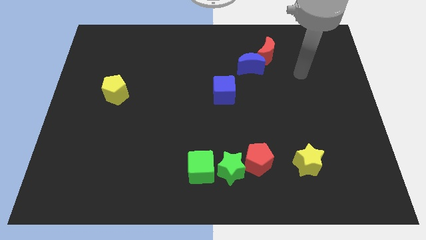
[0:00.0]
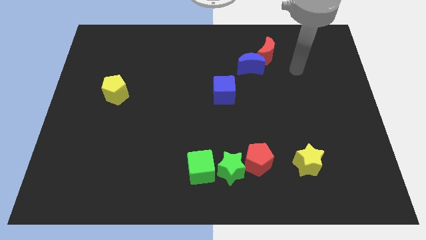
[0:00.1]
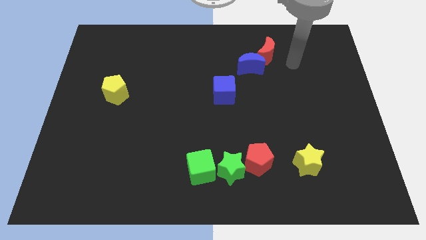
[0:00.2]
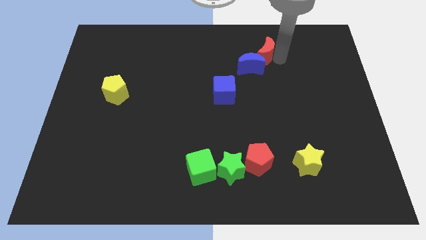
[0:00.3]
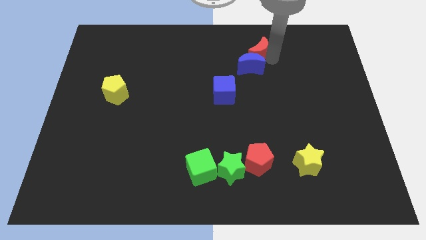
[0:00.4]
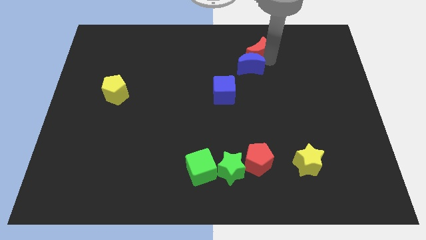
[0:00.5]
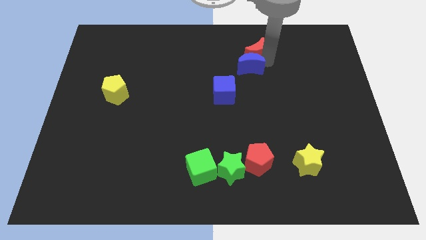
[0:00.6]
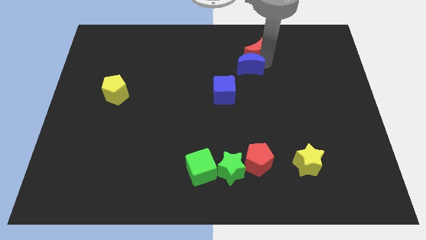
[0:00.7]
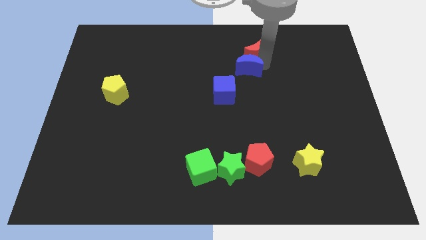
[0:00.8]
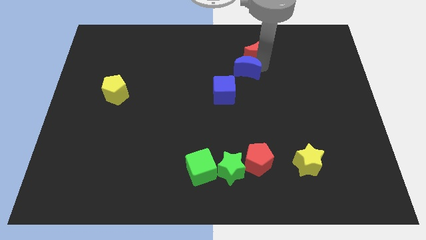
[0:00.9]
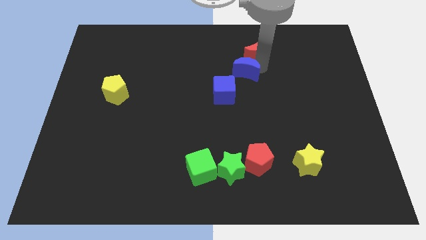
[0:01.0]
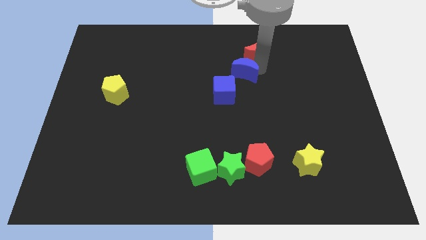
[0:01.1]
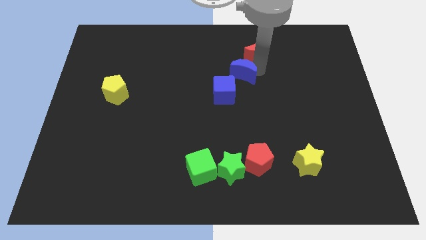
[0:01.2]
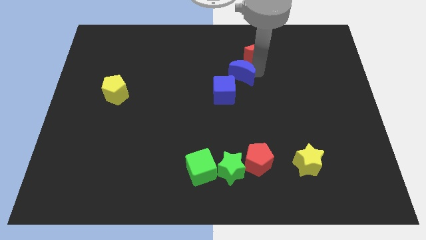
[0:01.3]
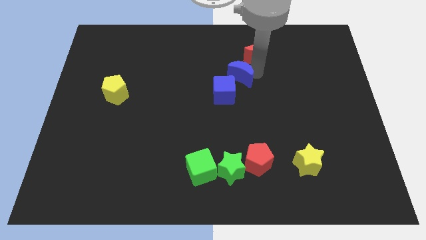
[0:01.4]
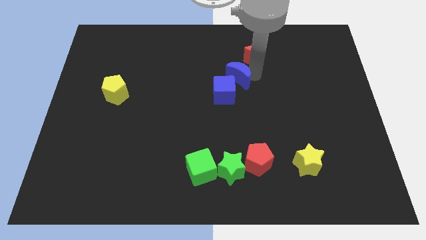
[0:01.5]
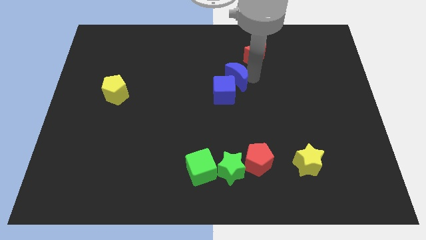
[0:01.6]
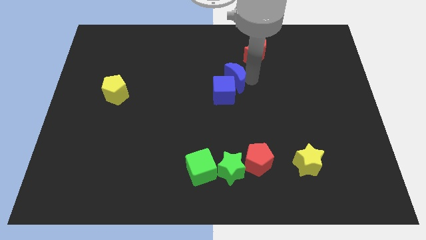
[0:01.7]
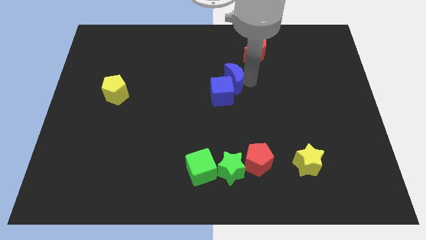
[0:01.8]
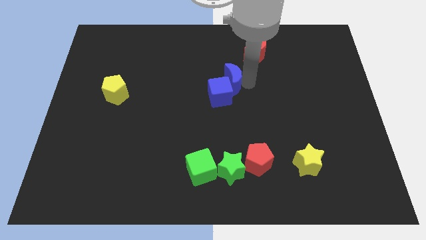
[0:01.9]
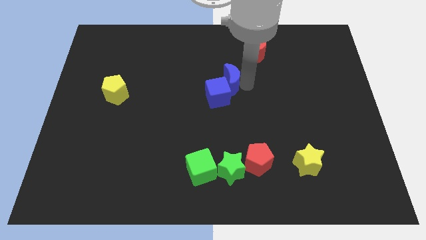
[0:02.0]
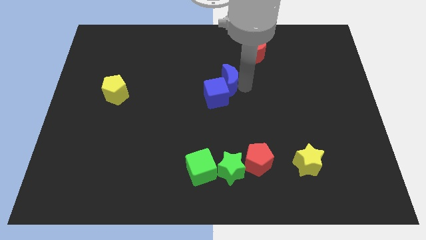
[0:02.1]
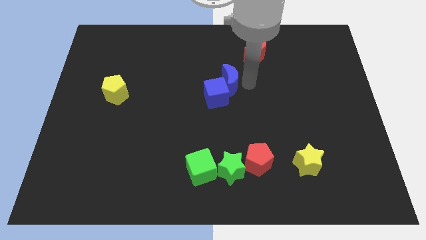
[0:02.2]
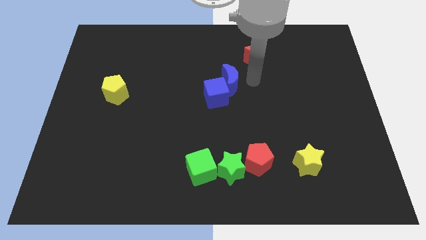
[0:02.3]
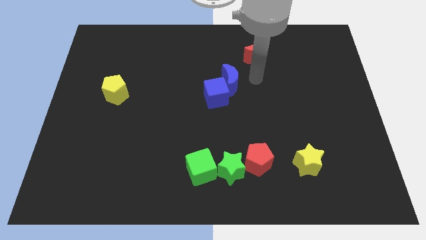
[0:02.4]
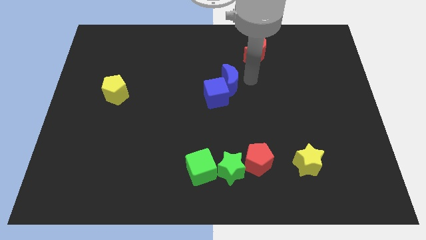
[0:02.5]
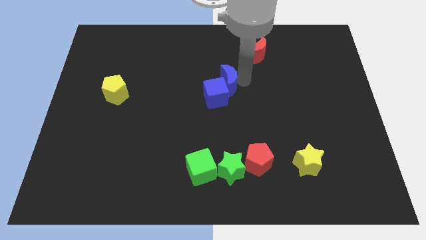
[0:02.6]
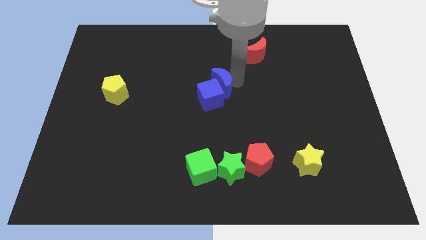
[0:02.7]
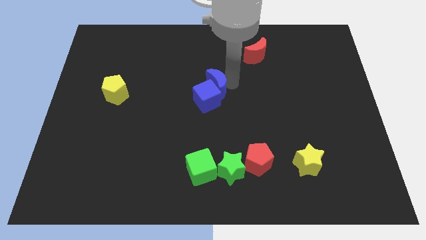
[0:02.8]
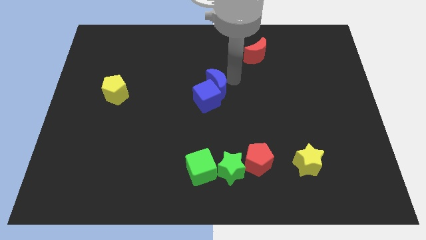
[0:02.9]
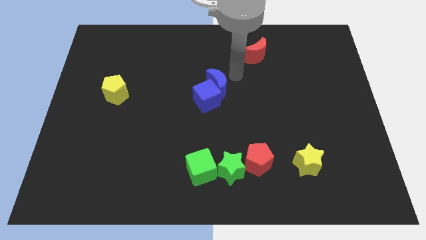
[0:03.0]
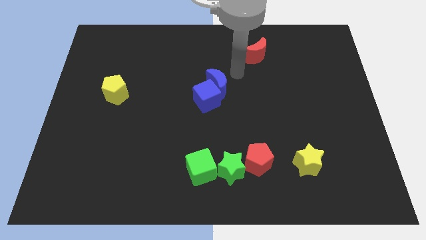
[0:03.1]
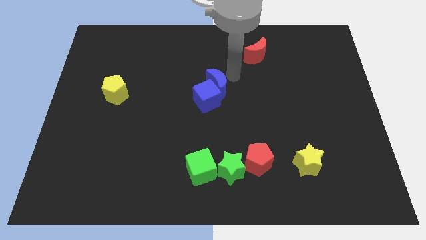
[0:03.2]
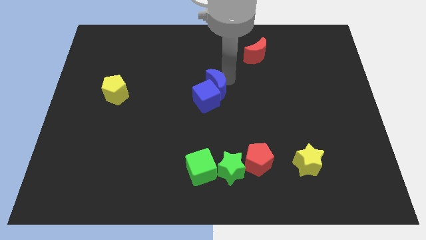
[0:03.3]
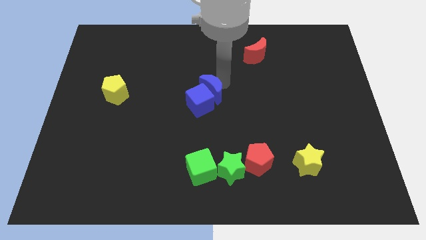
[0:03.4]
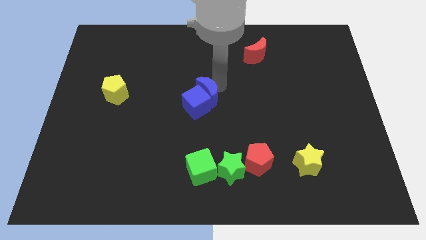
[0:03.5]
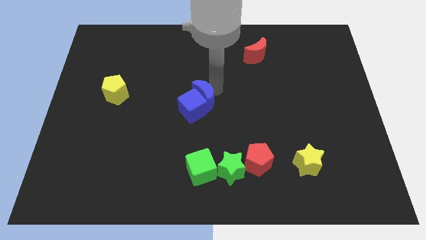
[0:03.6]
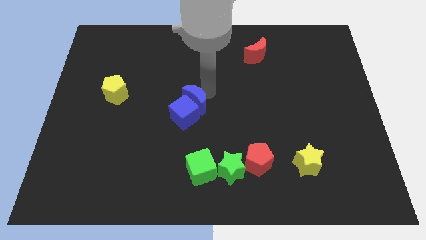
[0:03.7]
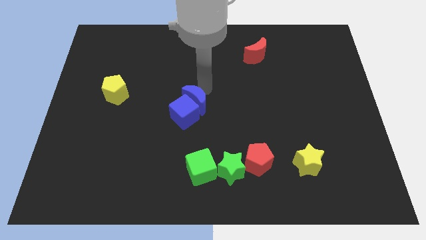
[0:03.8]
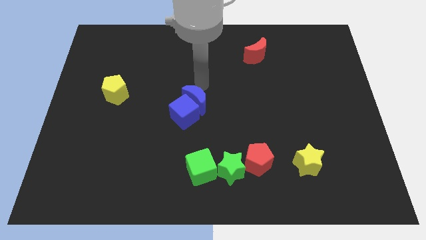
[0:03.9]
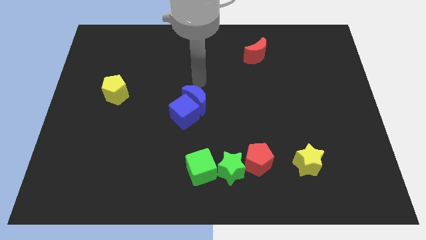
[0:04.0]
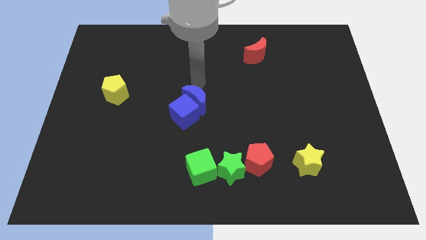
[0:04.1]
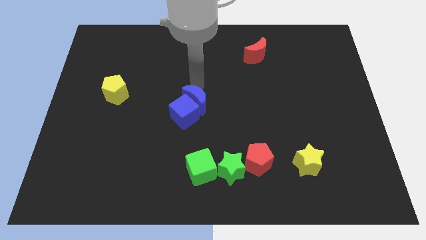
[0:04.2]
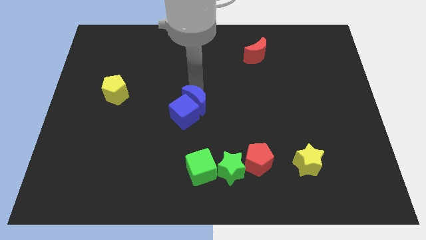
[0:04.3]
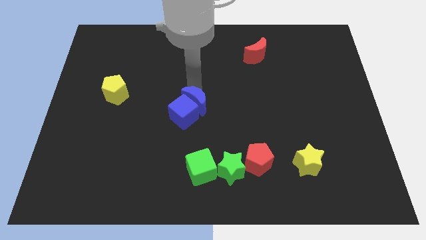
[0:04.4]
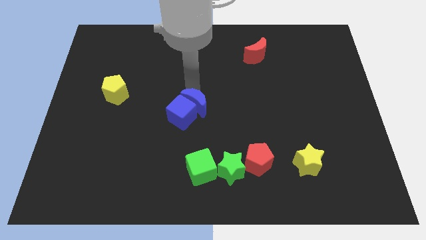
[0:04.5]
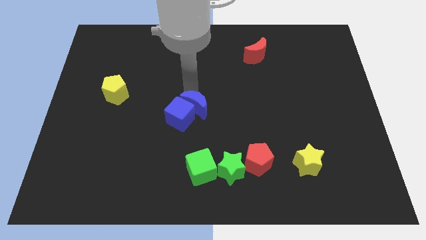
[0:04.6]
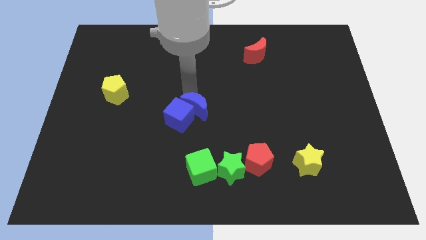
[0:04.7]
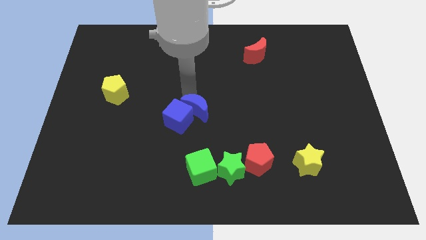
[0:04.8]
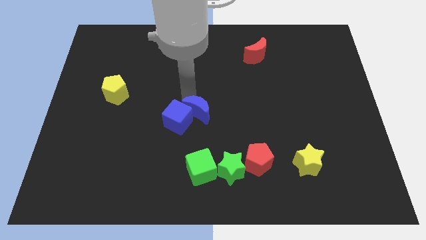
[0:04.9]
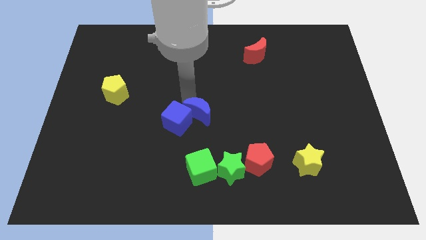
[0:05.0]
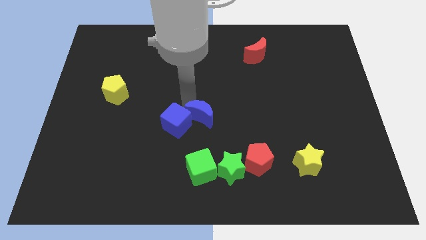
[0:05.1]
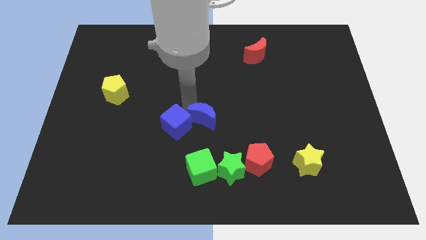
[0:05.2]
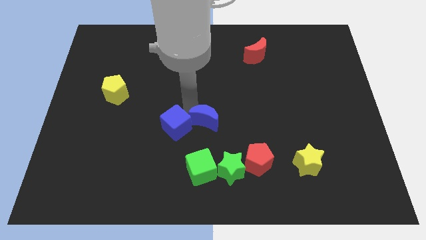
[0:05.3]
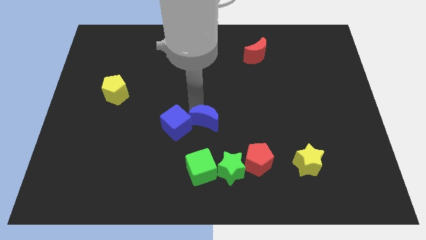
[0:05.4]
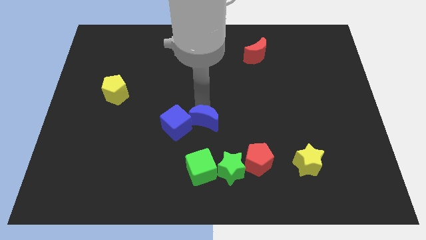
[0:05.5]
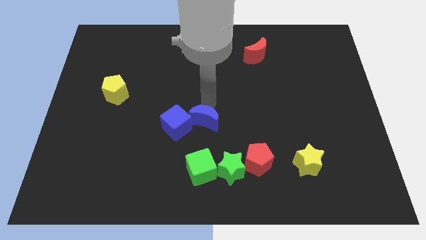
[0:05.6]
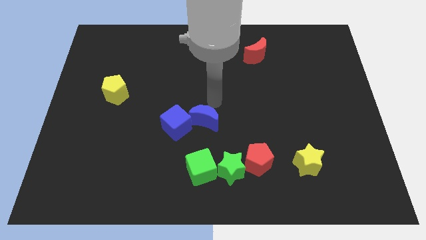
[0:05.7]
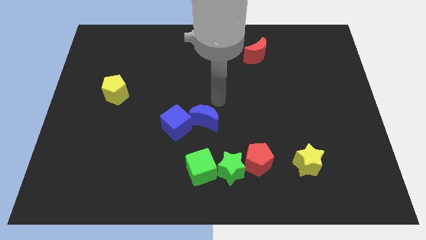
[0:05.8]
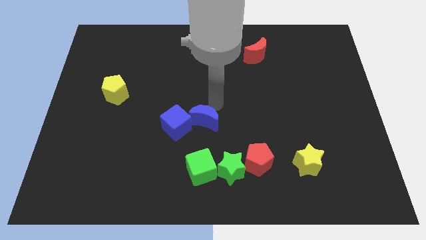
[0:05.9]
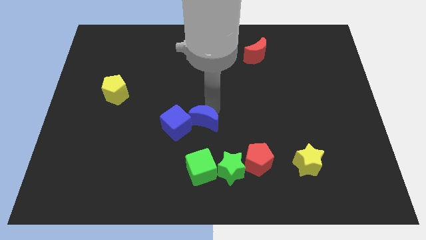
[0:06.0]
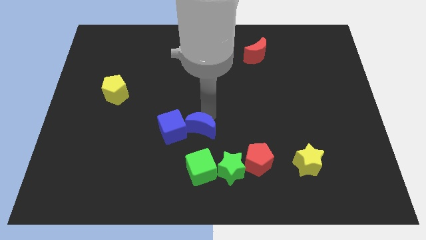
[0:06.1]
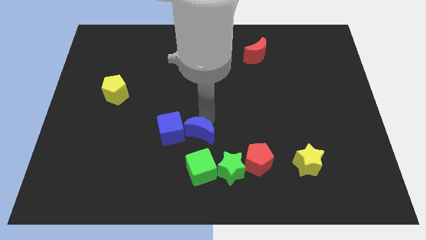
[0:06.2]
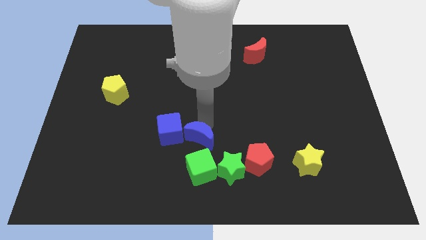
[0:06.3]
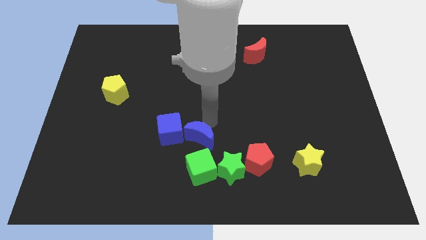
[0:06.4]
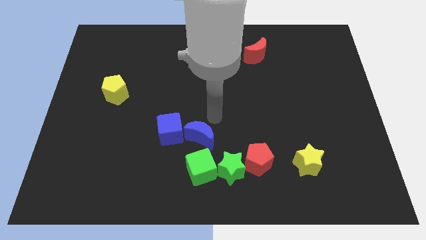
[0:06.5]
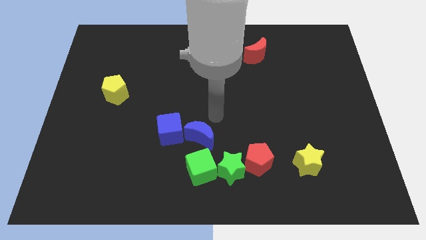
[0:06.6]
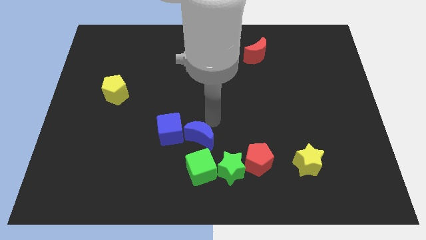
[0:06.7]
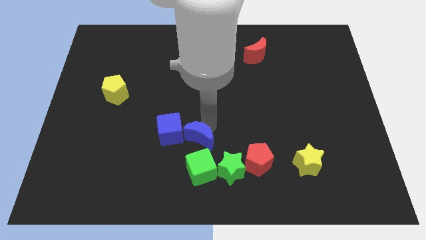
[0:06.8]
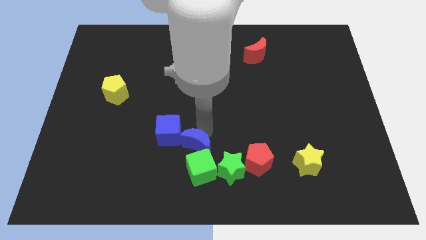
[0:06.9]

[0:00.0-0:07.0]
put the blue moon to the left side of the red pentagon
